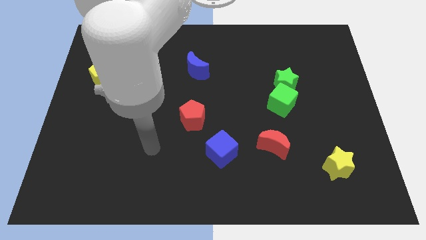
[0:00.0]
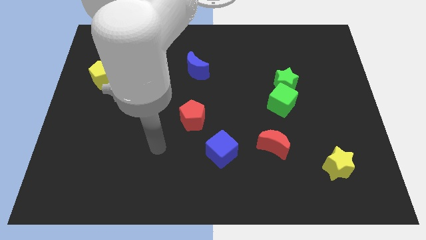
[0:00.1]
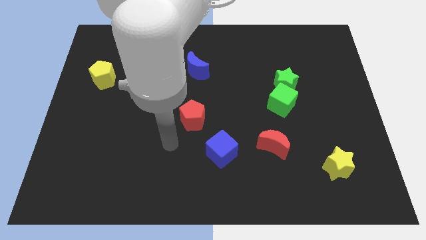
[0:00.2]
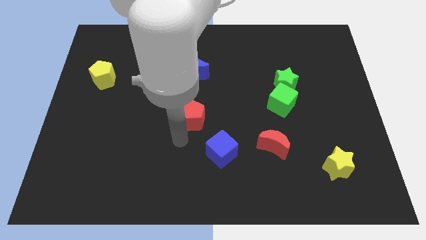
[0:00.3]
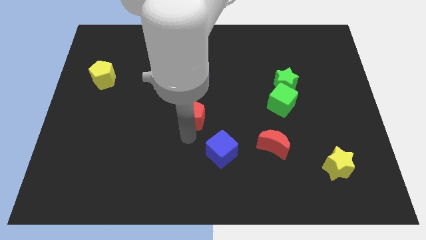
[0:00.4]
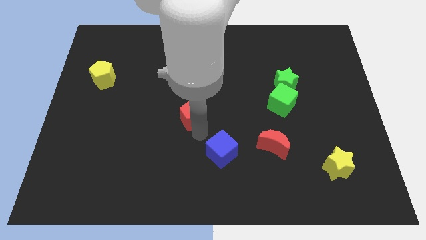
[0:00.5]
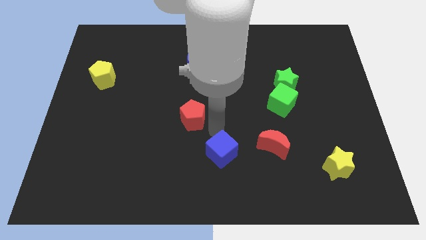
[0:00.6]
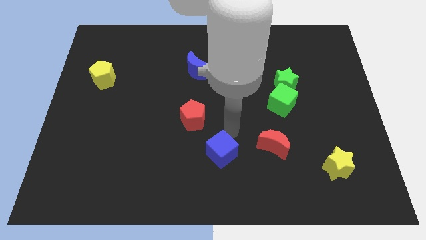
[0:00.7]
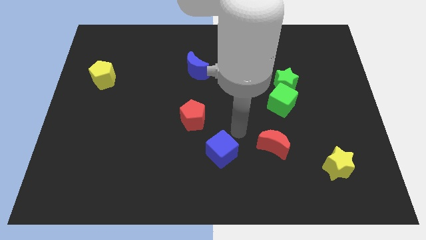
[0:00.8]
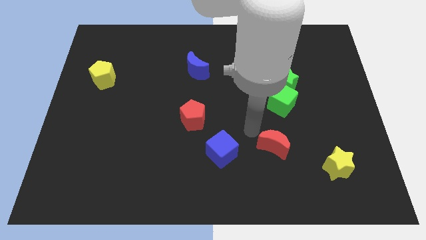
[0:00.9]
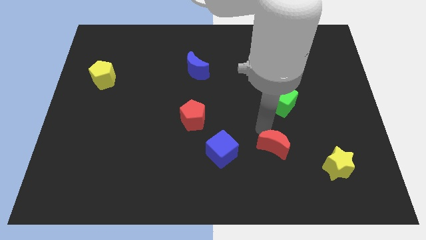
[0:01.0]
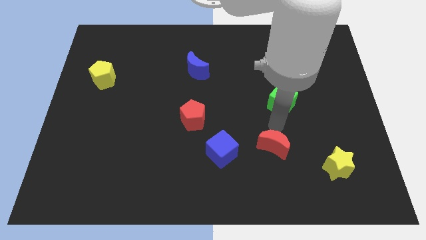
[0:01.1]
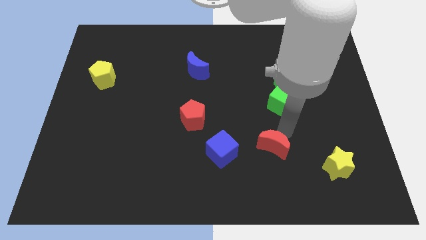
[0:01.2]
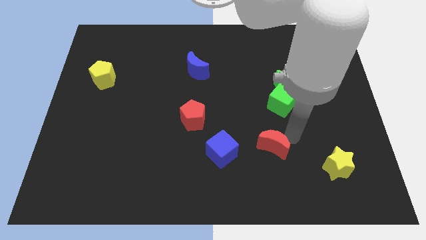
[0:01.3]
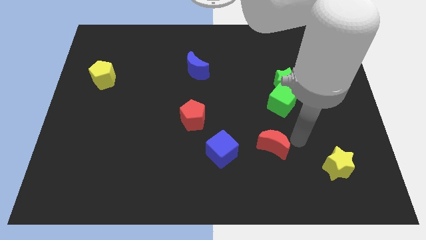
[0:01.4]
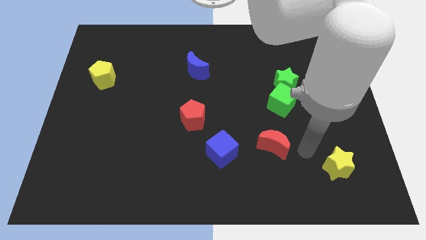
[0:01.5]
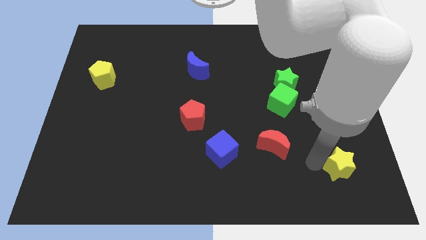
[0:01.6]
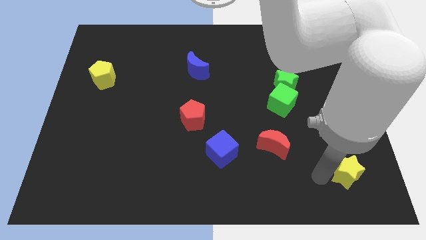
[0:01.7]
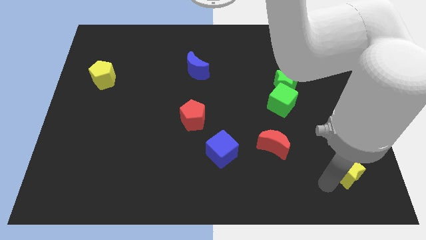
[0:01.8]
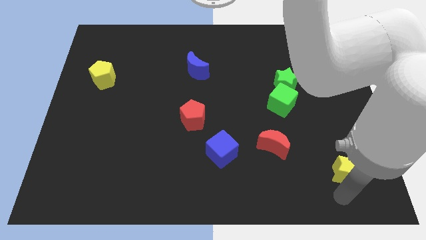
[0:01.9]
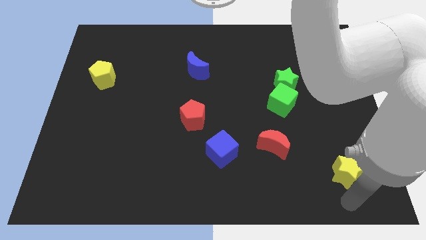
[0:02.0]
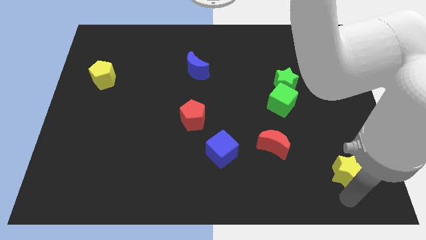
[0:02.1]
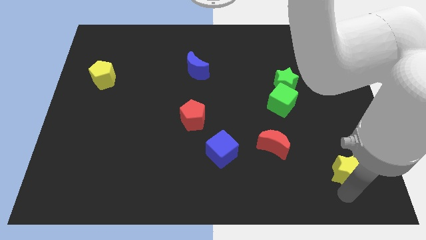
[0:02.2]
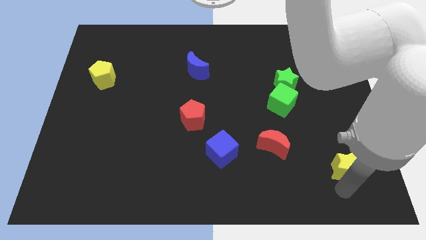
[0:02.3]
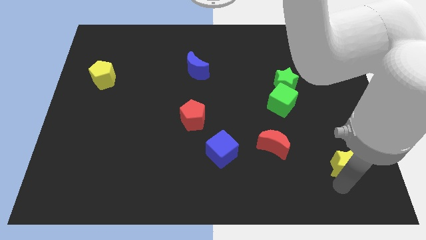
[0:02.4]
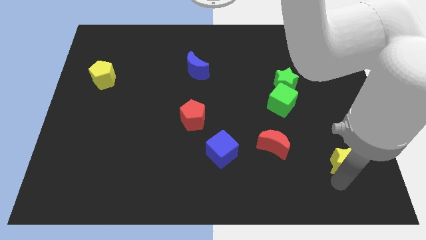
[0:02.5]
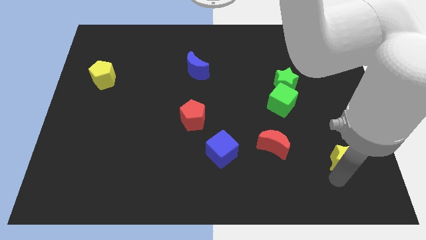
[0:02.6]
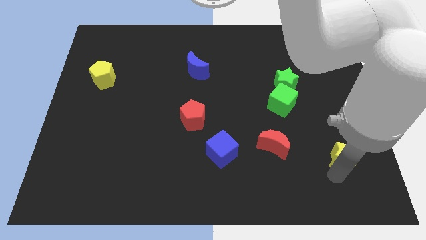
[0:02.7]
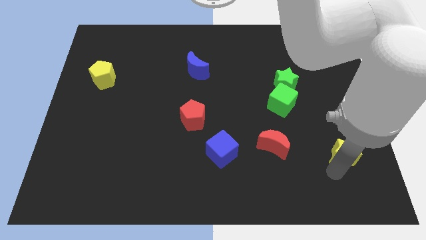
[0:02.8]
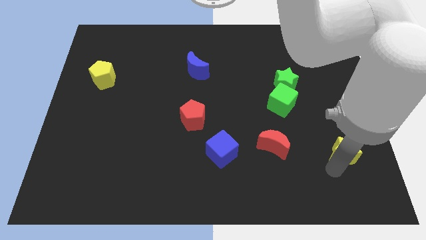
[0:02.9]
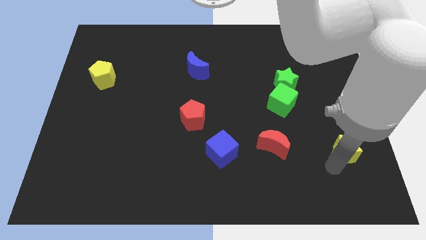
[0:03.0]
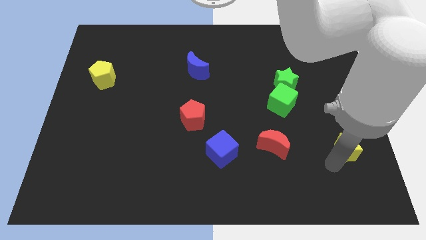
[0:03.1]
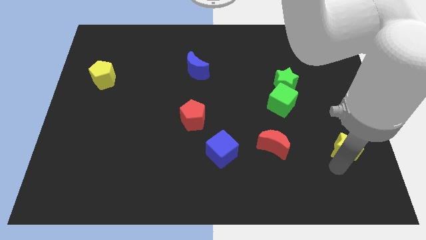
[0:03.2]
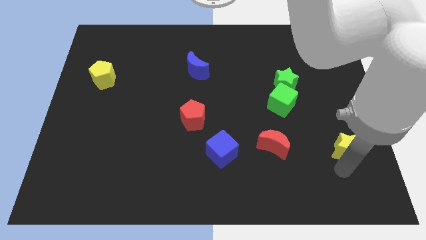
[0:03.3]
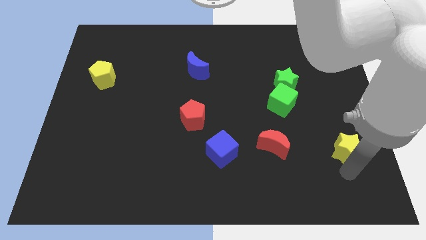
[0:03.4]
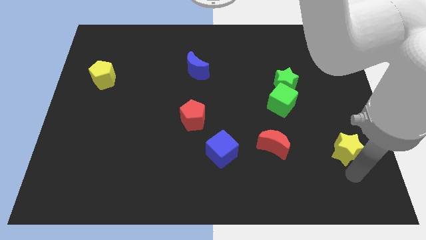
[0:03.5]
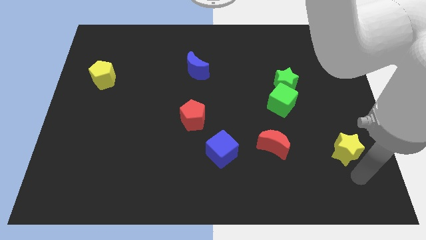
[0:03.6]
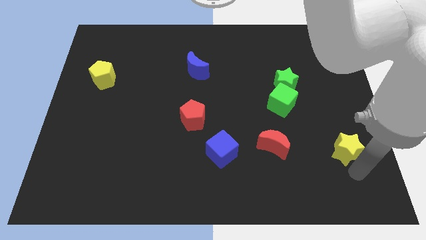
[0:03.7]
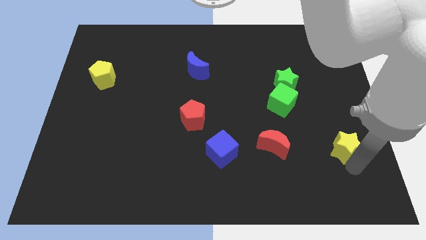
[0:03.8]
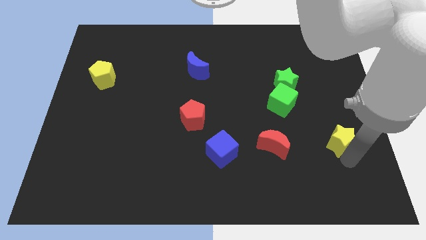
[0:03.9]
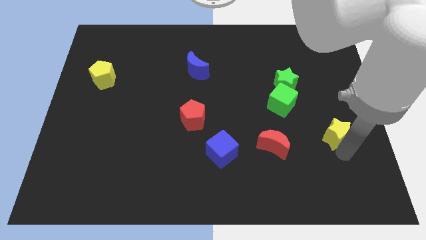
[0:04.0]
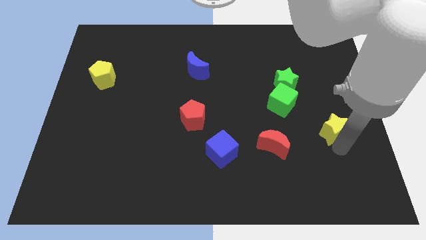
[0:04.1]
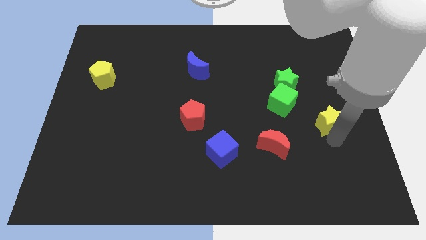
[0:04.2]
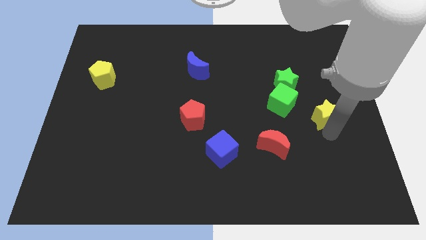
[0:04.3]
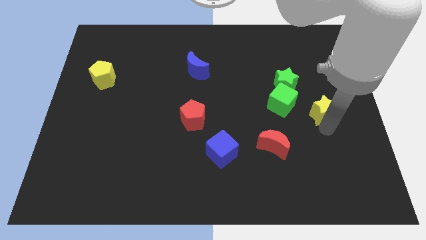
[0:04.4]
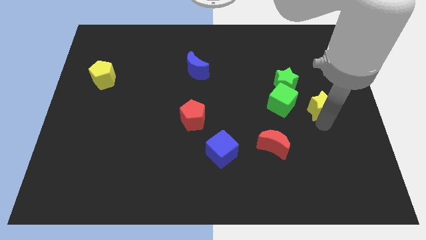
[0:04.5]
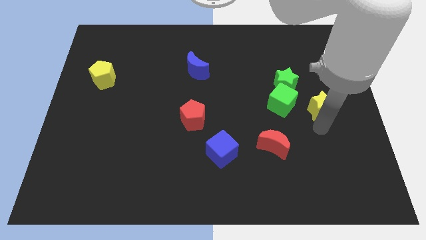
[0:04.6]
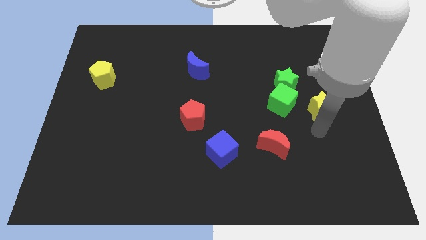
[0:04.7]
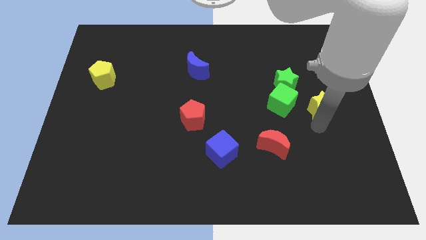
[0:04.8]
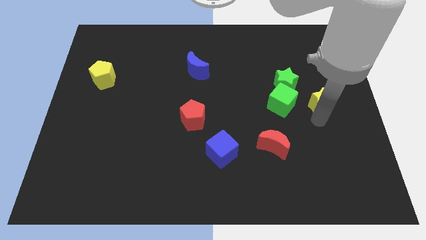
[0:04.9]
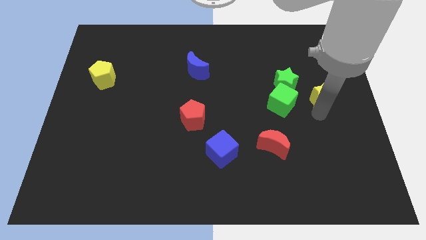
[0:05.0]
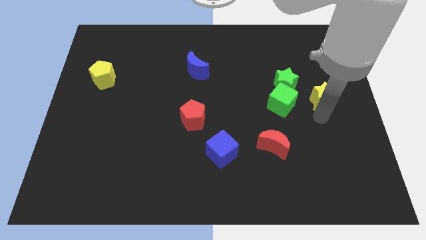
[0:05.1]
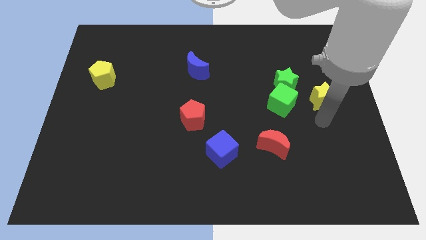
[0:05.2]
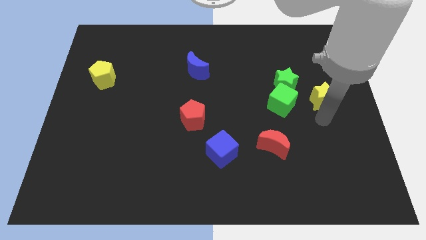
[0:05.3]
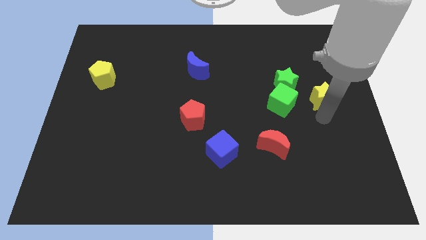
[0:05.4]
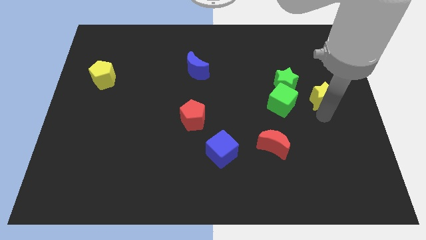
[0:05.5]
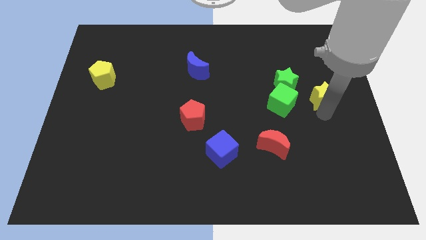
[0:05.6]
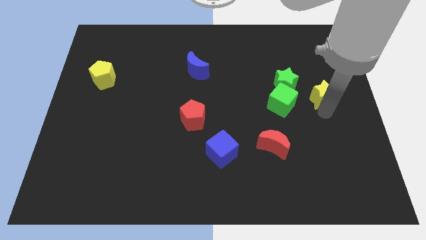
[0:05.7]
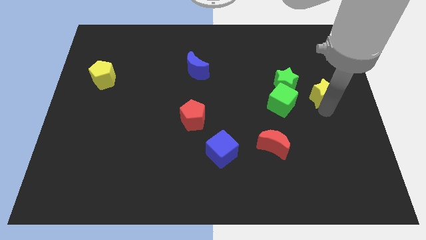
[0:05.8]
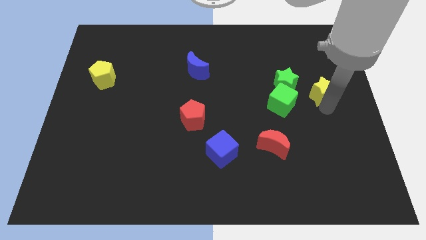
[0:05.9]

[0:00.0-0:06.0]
slide the yellow star up

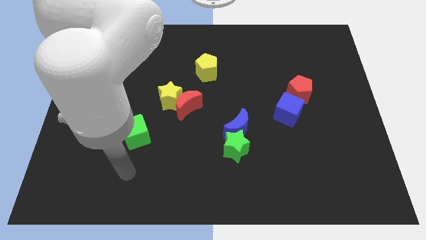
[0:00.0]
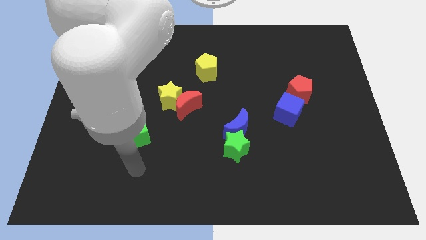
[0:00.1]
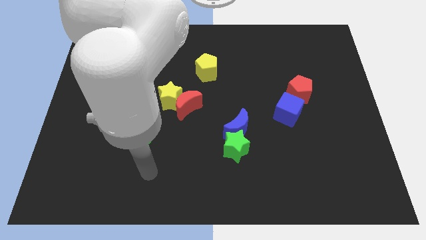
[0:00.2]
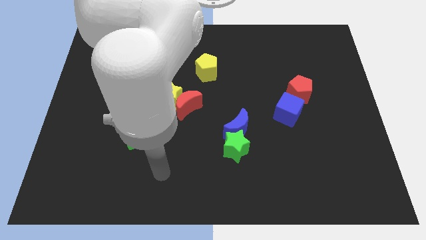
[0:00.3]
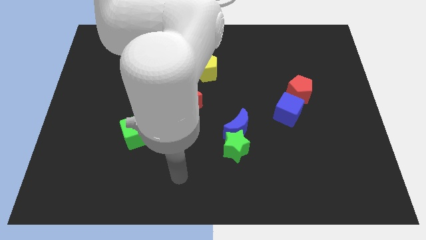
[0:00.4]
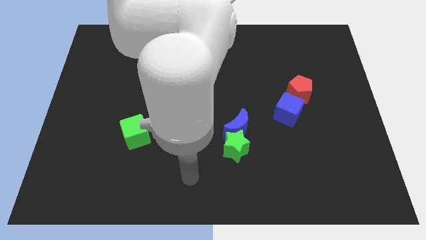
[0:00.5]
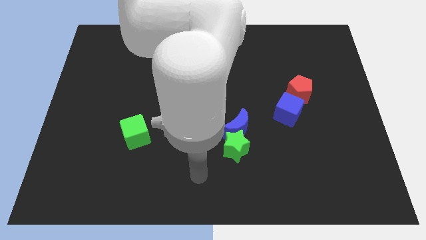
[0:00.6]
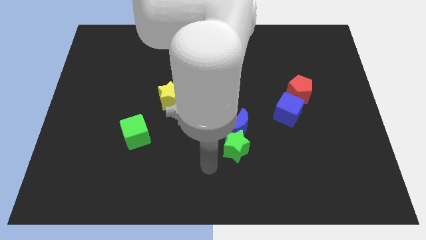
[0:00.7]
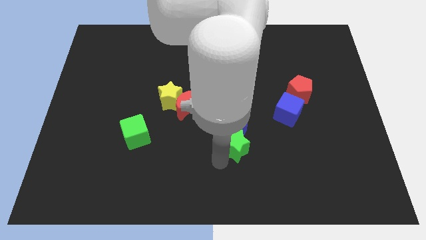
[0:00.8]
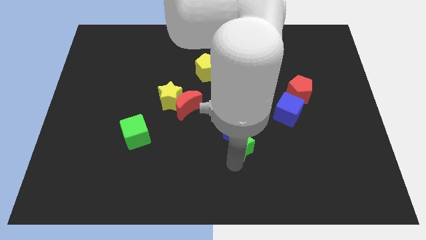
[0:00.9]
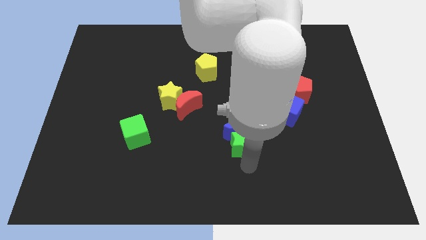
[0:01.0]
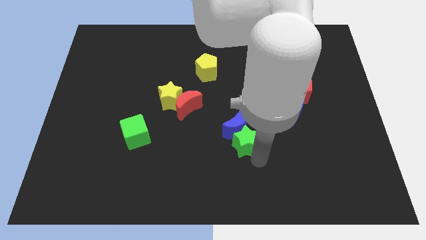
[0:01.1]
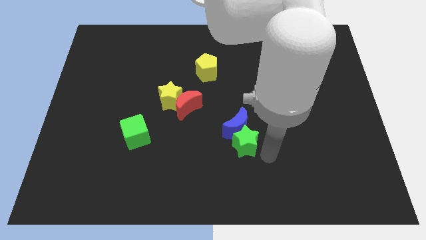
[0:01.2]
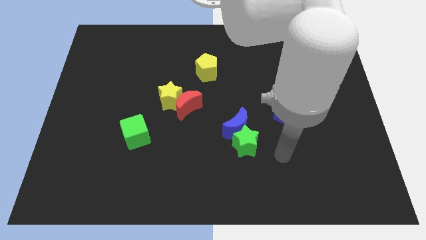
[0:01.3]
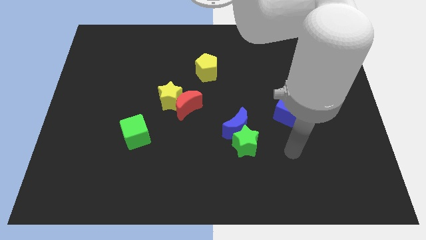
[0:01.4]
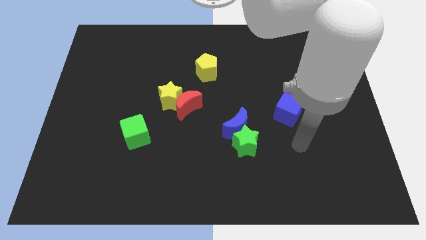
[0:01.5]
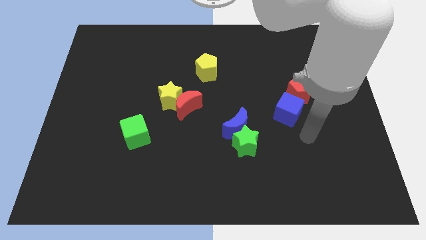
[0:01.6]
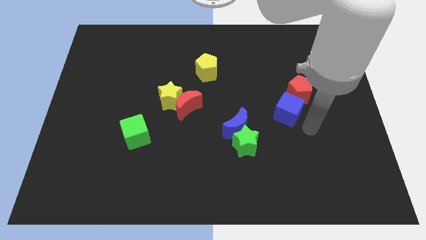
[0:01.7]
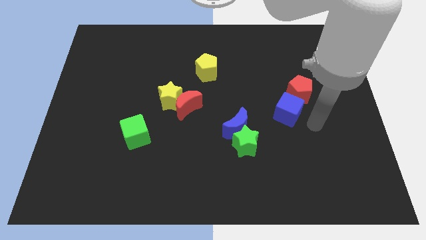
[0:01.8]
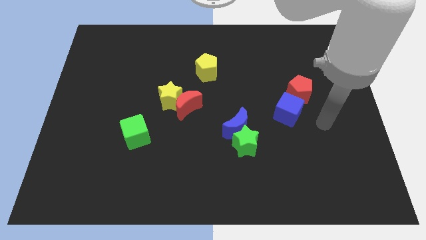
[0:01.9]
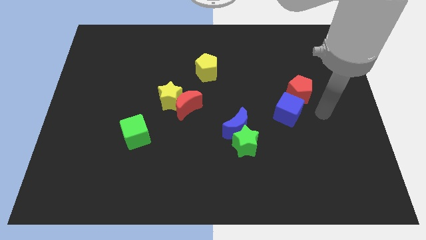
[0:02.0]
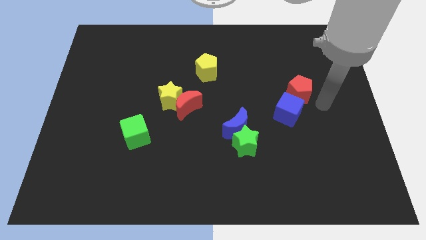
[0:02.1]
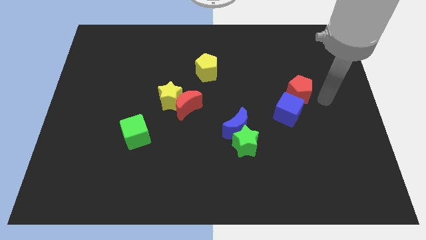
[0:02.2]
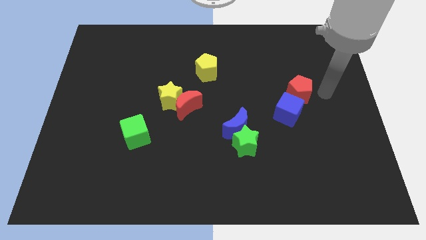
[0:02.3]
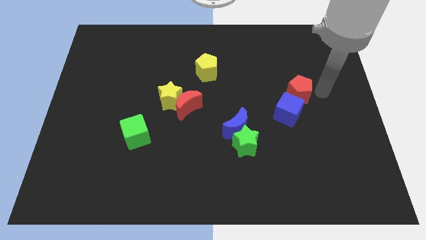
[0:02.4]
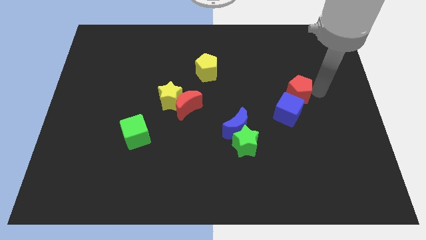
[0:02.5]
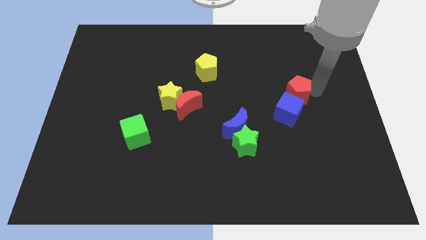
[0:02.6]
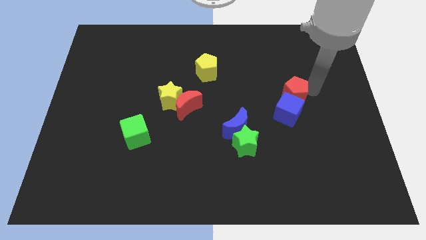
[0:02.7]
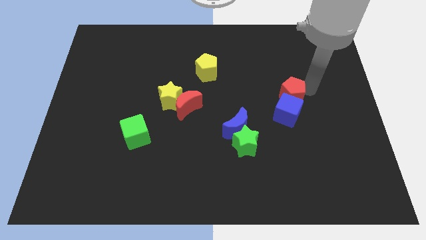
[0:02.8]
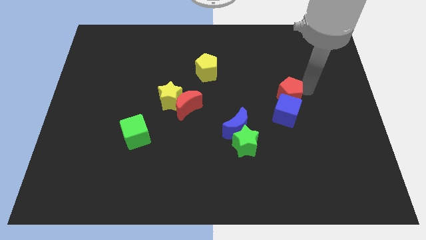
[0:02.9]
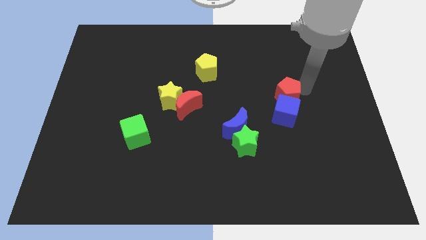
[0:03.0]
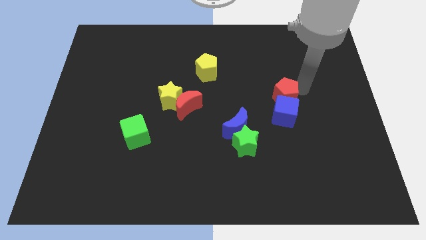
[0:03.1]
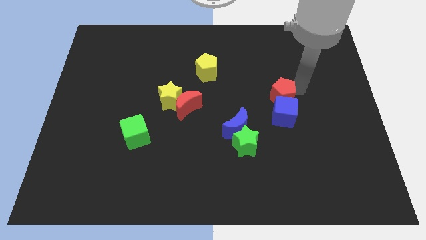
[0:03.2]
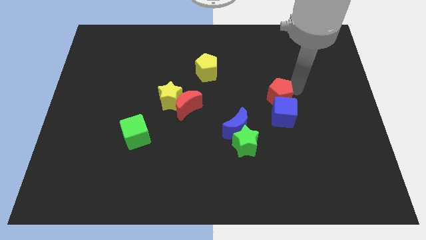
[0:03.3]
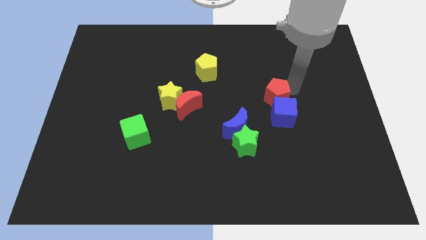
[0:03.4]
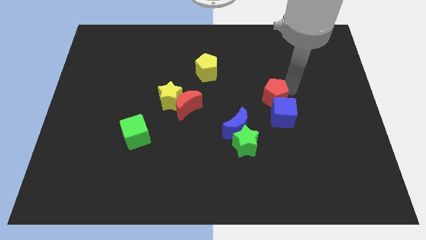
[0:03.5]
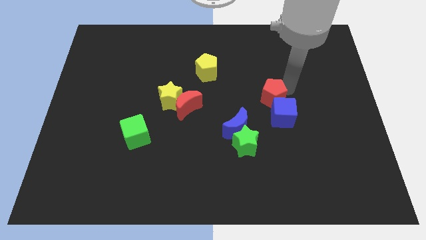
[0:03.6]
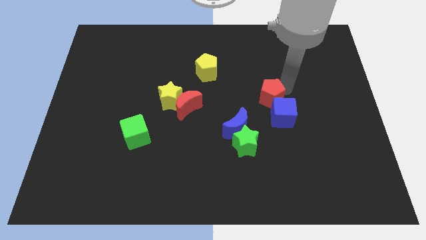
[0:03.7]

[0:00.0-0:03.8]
slightly slide the red pentagon to the left
